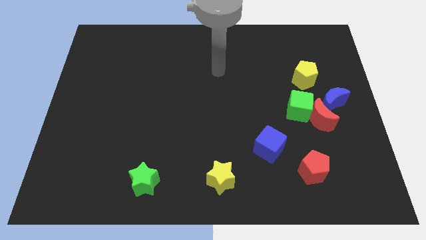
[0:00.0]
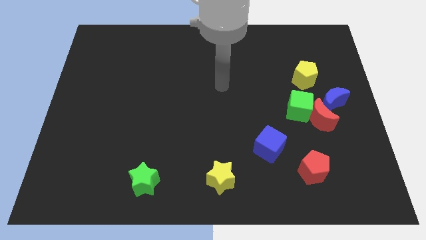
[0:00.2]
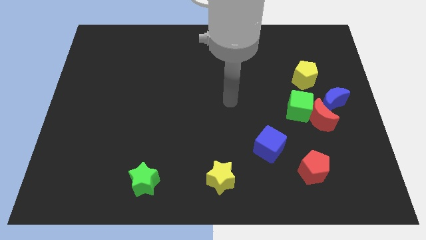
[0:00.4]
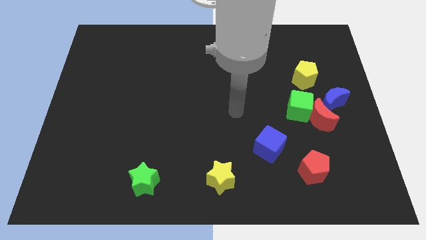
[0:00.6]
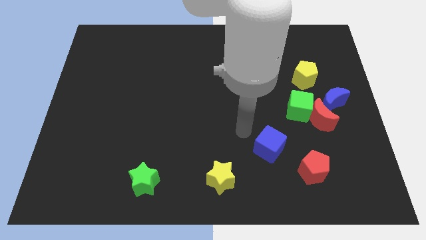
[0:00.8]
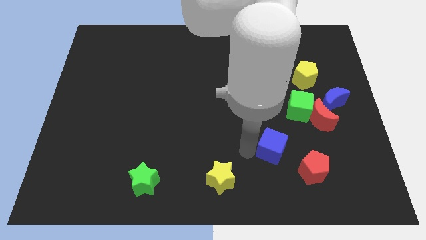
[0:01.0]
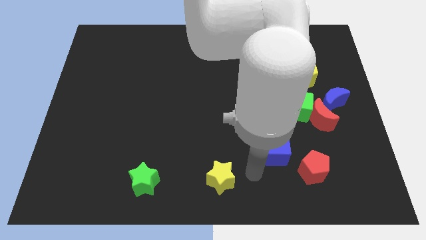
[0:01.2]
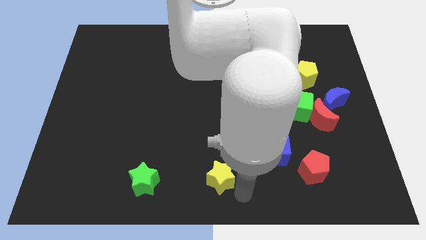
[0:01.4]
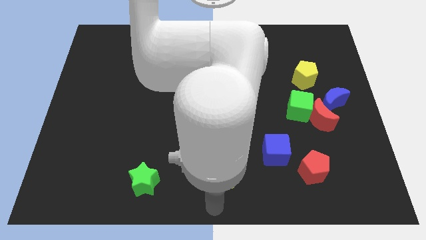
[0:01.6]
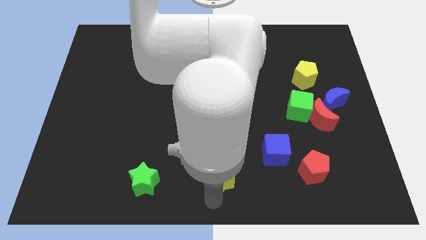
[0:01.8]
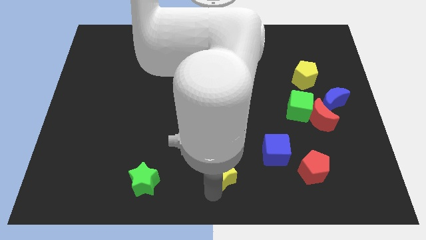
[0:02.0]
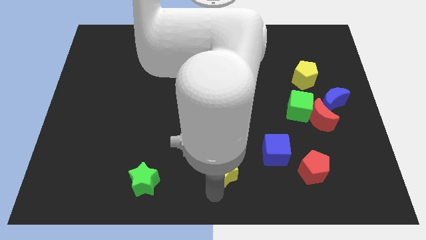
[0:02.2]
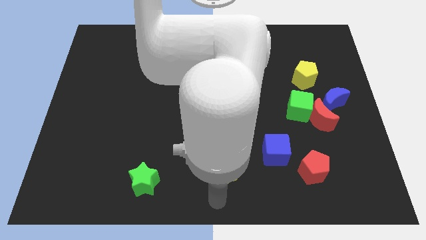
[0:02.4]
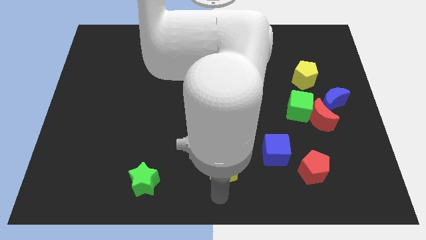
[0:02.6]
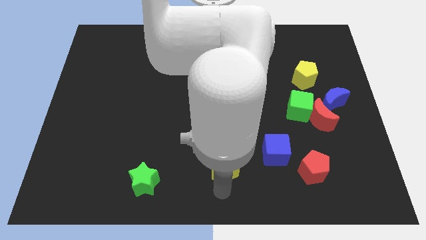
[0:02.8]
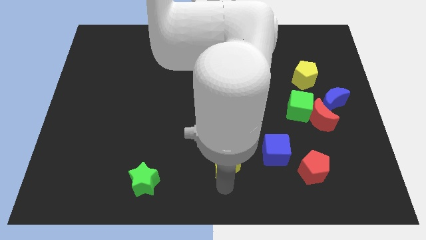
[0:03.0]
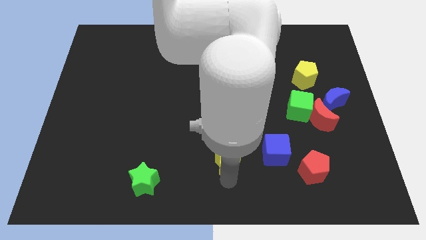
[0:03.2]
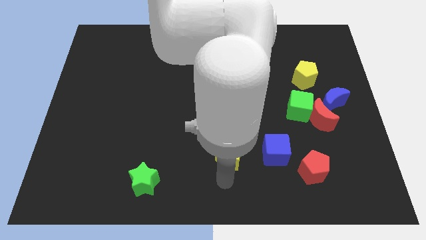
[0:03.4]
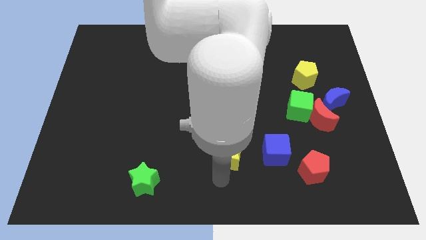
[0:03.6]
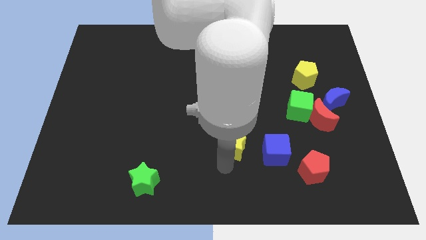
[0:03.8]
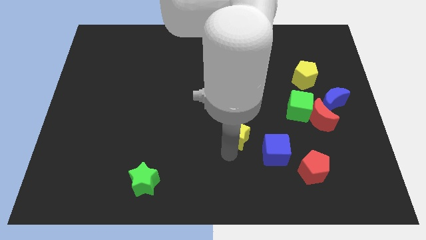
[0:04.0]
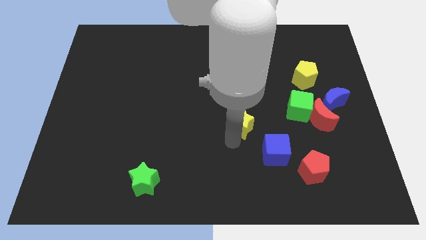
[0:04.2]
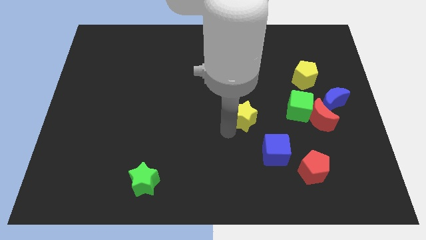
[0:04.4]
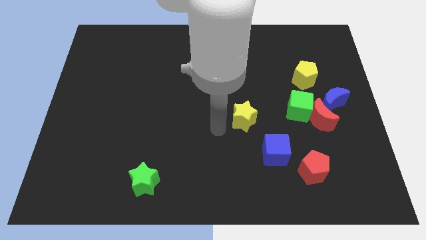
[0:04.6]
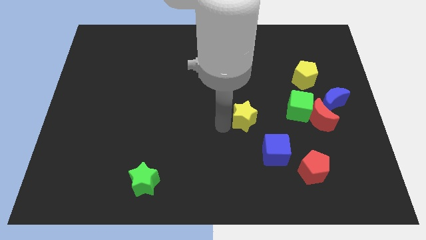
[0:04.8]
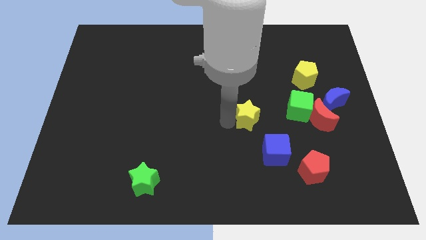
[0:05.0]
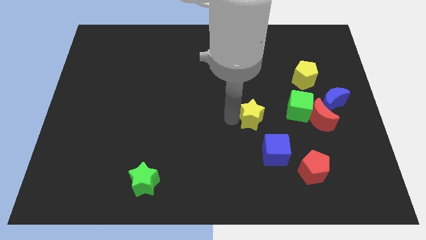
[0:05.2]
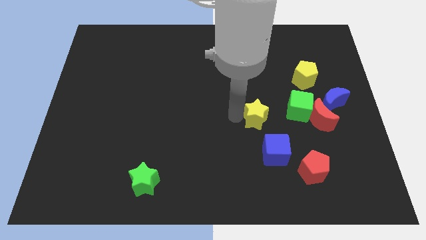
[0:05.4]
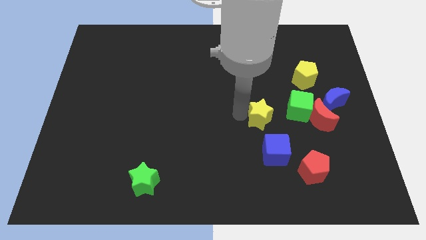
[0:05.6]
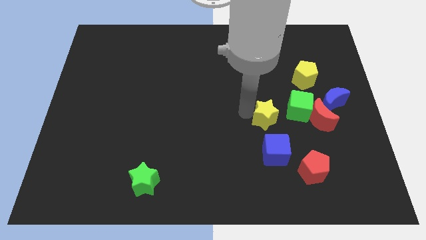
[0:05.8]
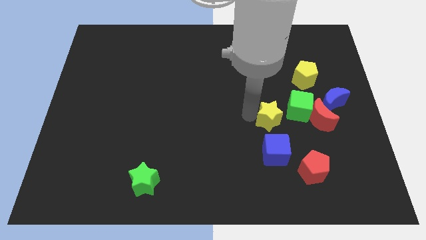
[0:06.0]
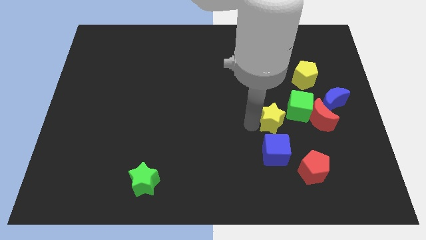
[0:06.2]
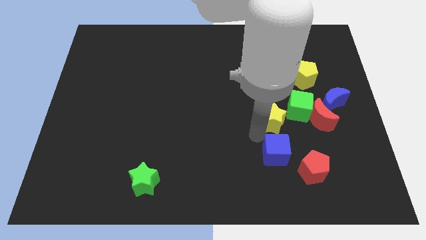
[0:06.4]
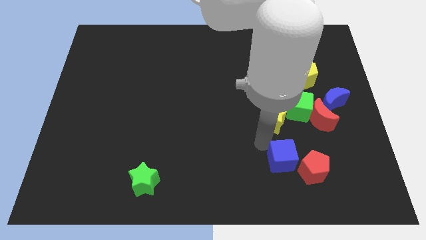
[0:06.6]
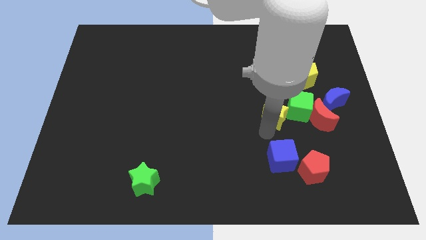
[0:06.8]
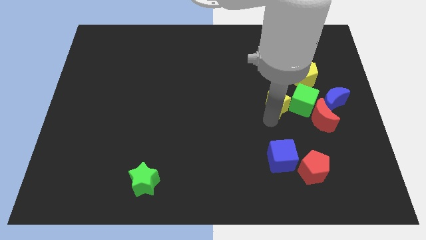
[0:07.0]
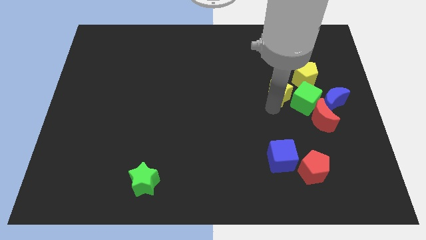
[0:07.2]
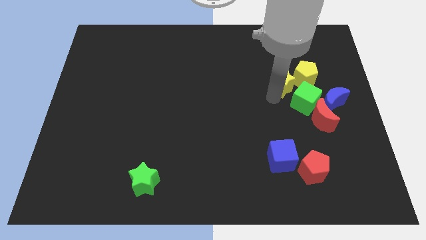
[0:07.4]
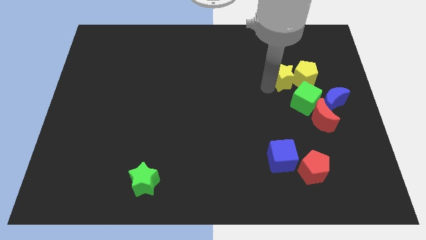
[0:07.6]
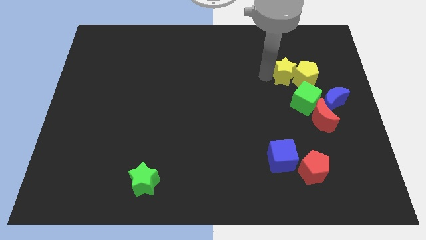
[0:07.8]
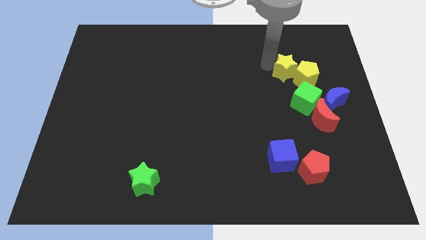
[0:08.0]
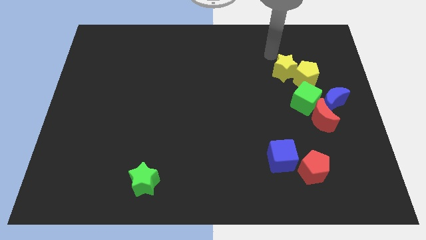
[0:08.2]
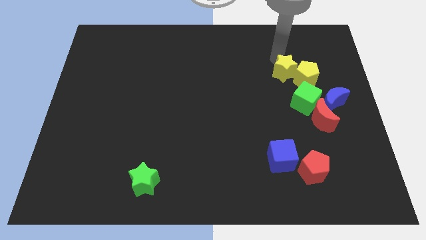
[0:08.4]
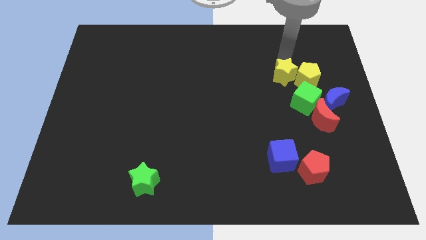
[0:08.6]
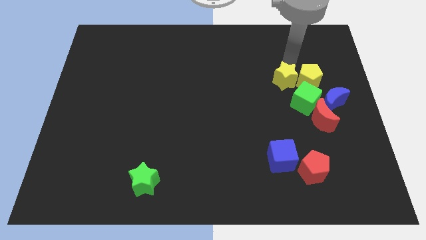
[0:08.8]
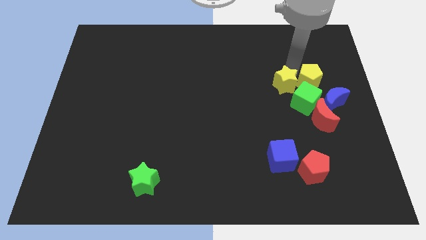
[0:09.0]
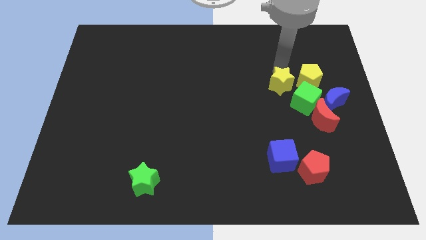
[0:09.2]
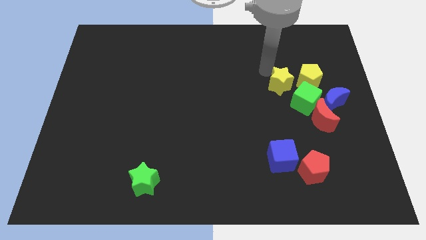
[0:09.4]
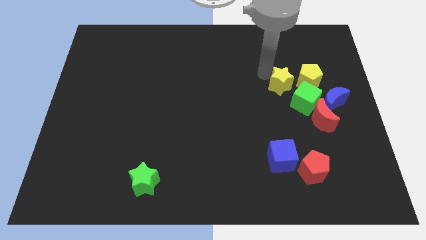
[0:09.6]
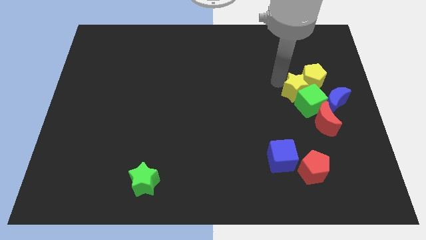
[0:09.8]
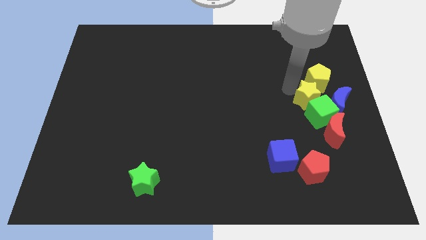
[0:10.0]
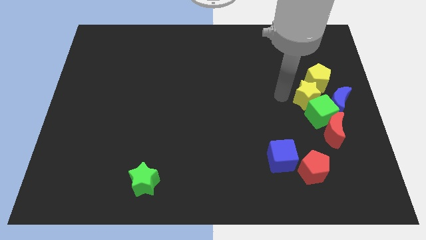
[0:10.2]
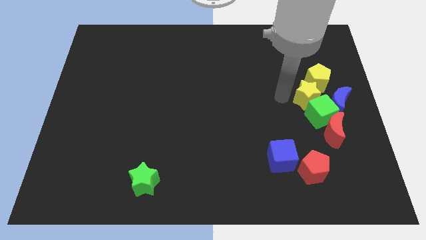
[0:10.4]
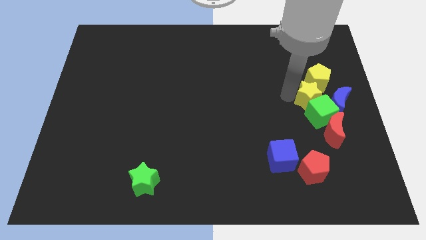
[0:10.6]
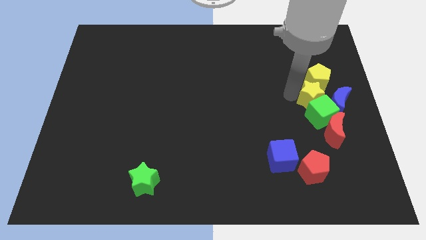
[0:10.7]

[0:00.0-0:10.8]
slide the yellow star to the top right side of the green cube

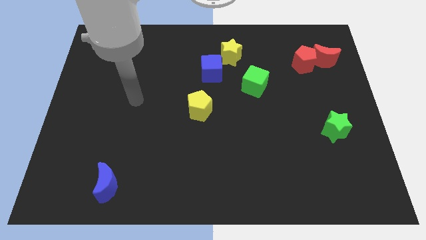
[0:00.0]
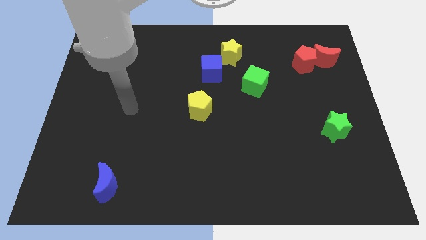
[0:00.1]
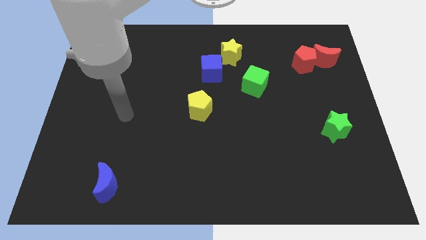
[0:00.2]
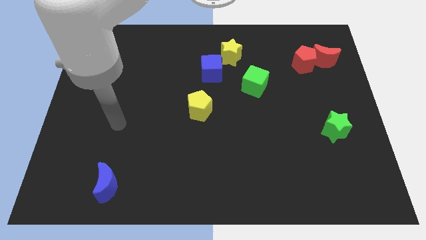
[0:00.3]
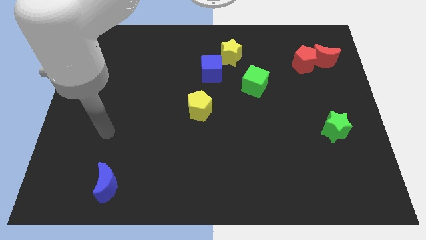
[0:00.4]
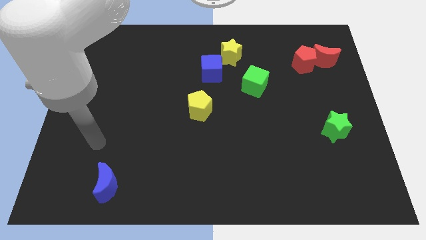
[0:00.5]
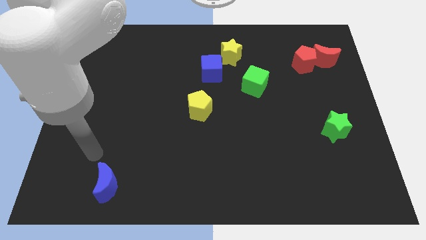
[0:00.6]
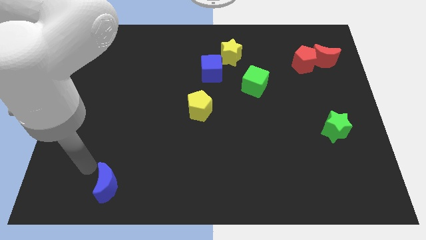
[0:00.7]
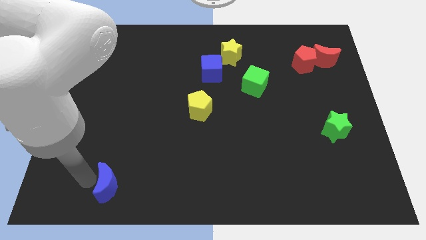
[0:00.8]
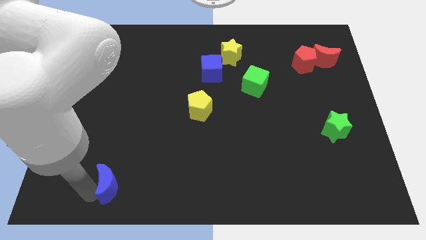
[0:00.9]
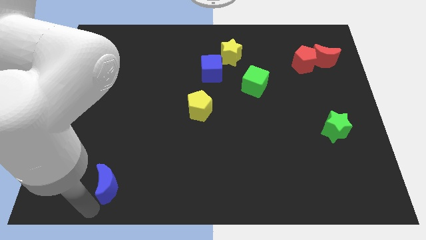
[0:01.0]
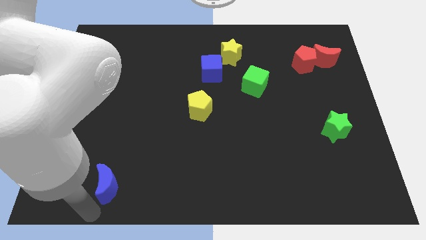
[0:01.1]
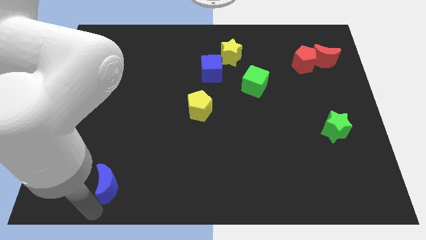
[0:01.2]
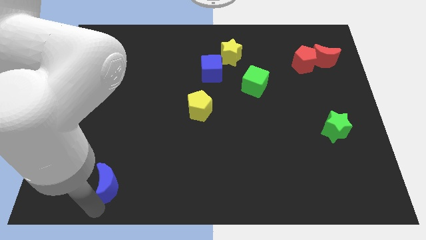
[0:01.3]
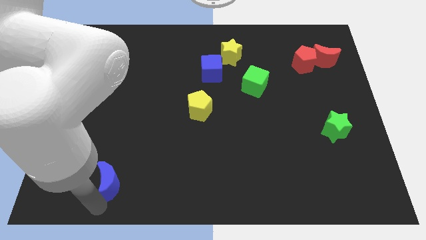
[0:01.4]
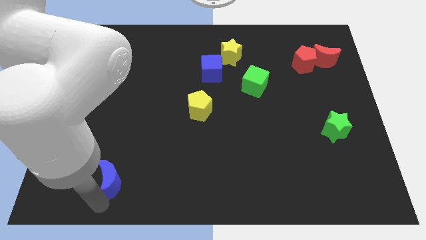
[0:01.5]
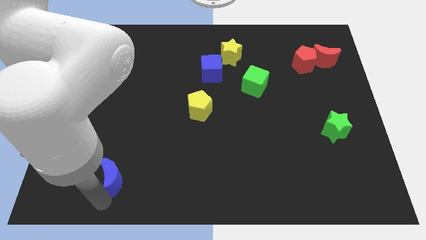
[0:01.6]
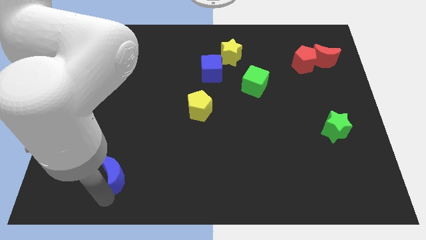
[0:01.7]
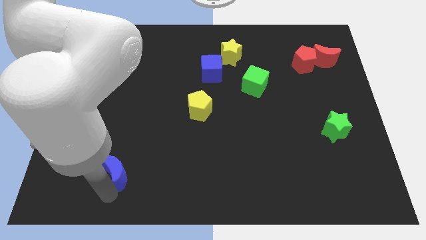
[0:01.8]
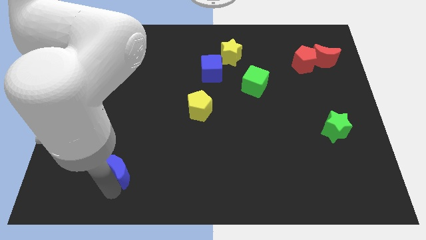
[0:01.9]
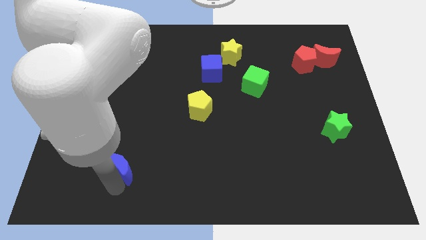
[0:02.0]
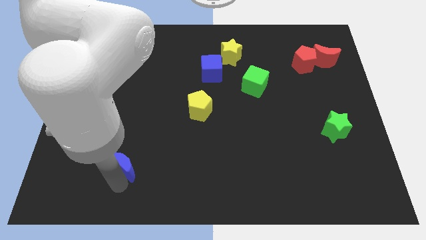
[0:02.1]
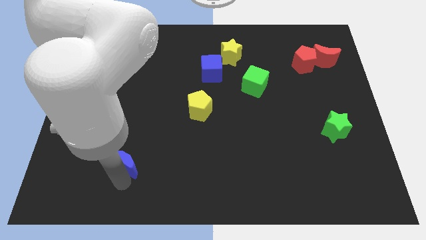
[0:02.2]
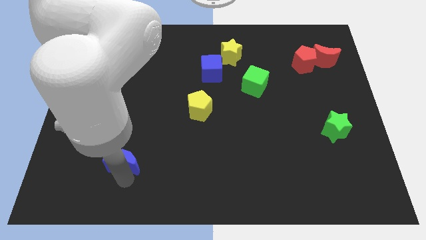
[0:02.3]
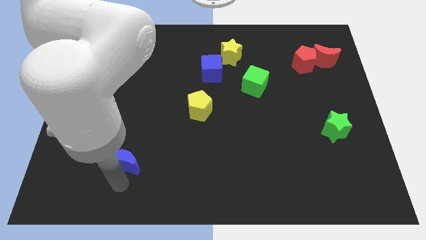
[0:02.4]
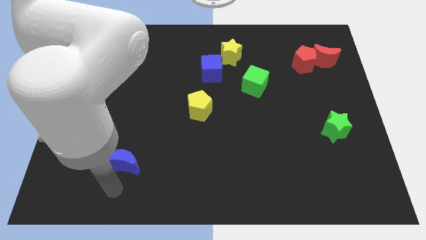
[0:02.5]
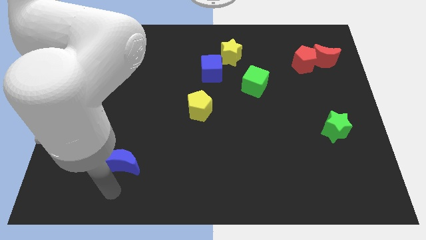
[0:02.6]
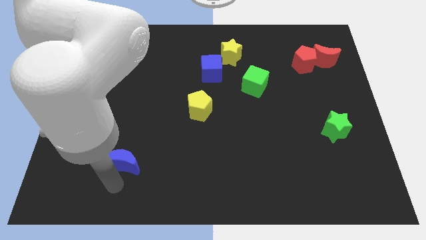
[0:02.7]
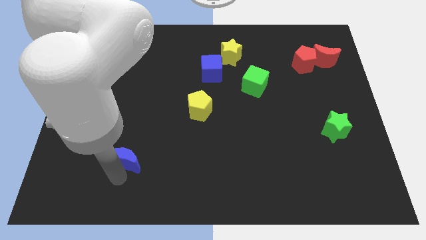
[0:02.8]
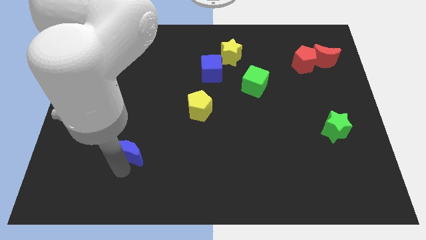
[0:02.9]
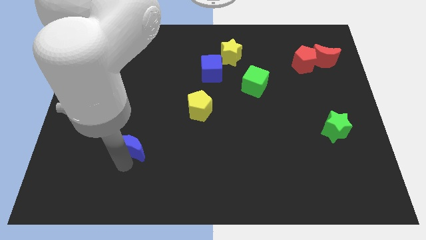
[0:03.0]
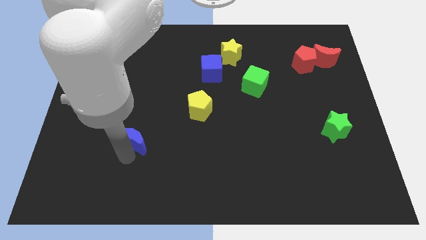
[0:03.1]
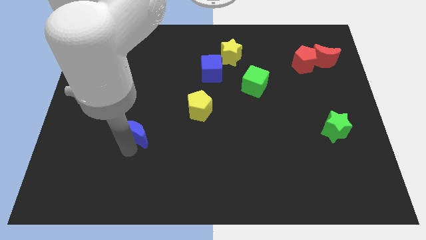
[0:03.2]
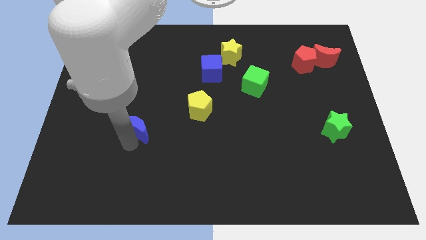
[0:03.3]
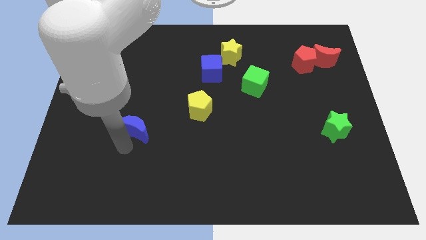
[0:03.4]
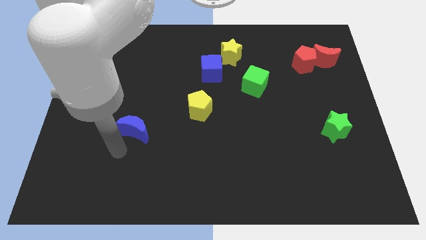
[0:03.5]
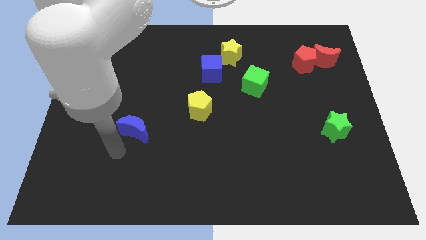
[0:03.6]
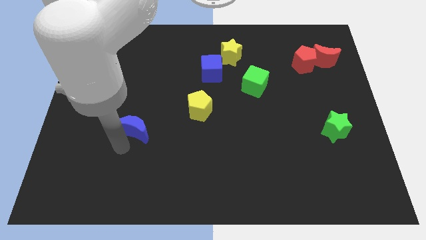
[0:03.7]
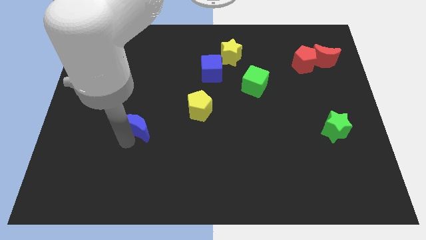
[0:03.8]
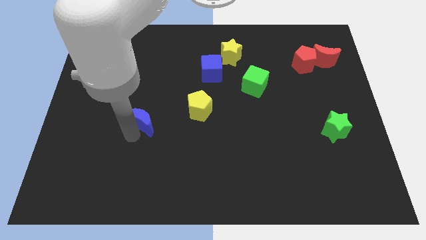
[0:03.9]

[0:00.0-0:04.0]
slide the blue moon left of the yellow pentagon
